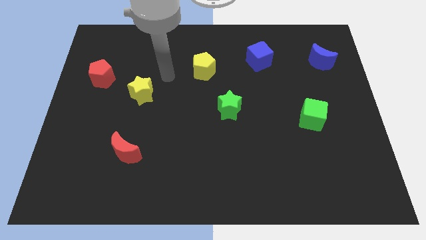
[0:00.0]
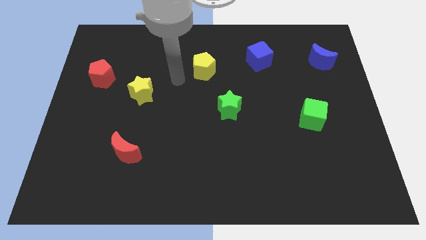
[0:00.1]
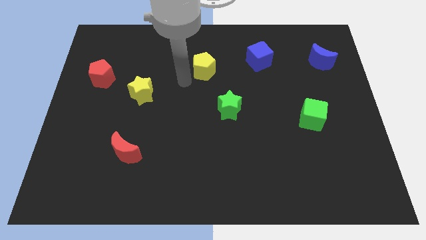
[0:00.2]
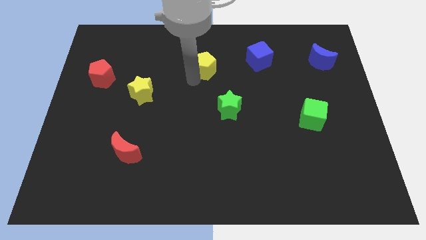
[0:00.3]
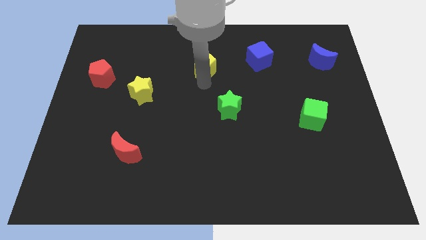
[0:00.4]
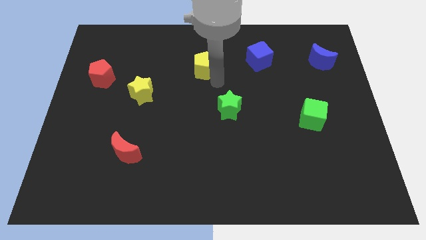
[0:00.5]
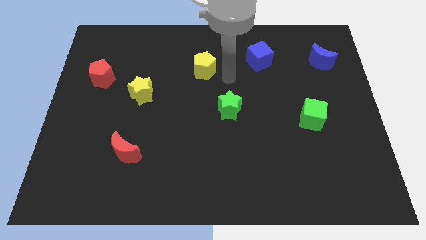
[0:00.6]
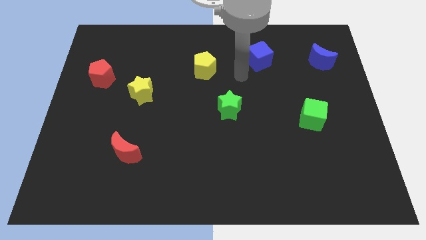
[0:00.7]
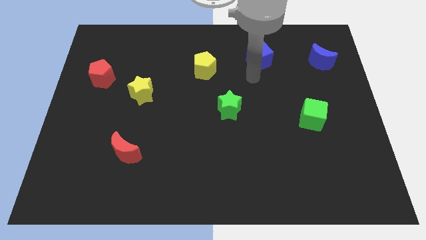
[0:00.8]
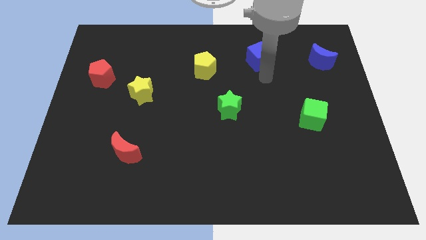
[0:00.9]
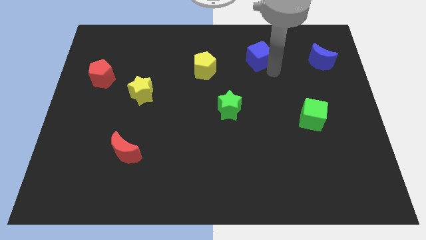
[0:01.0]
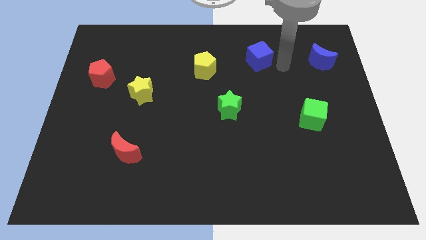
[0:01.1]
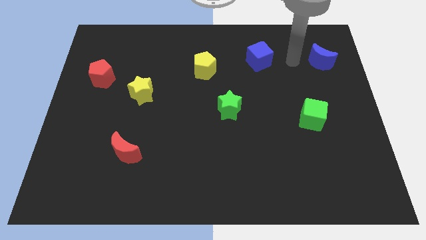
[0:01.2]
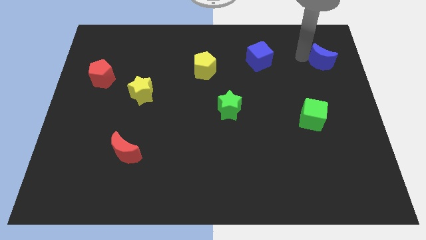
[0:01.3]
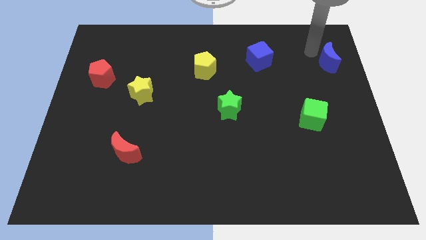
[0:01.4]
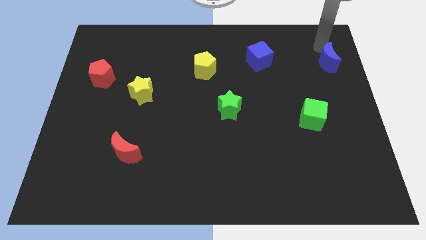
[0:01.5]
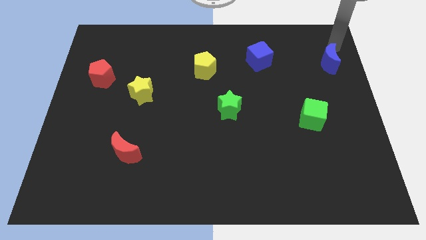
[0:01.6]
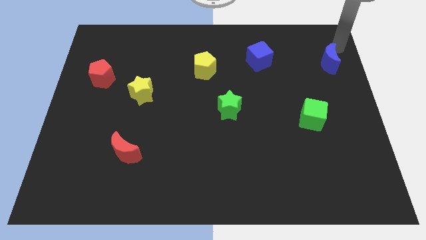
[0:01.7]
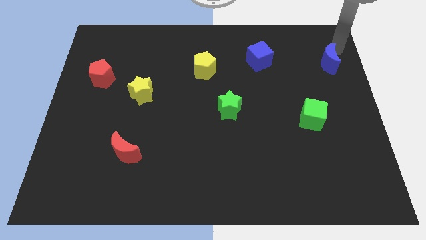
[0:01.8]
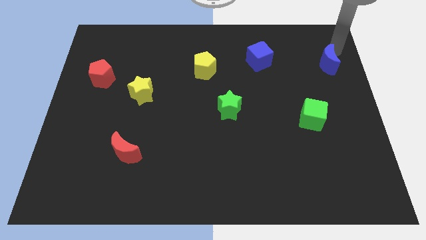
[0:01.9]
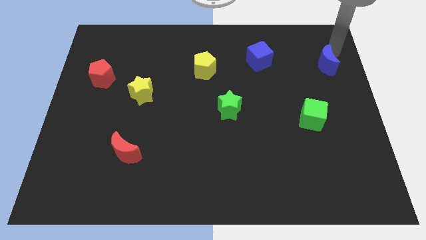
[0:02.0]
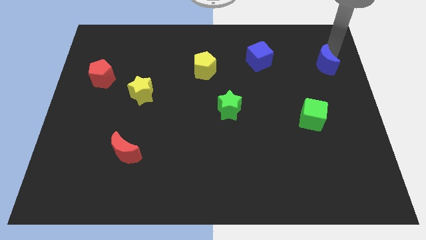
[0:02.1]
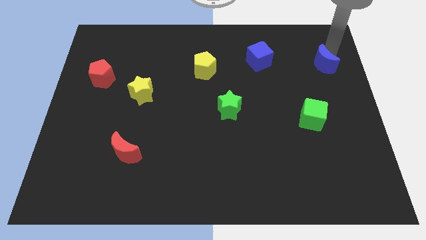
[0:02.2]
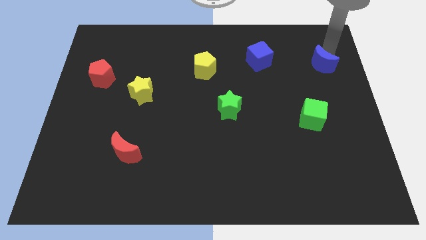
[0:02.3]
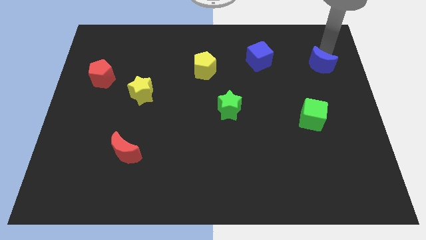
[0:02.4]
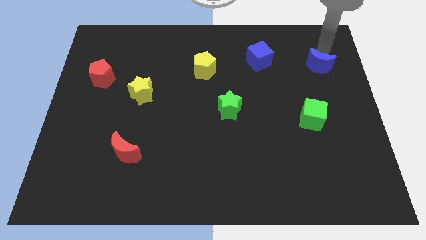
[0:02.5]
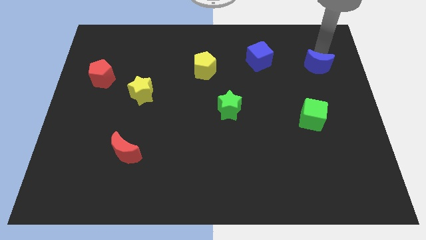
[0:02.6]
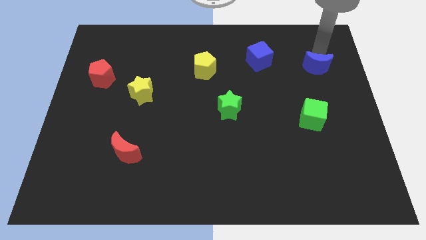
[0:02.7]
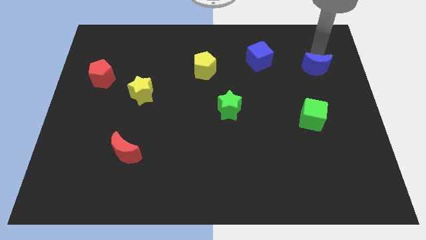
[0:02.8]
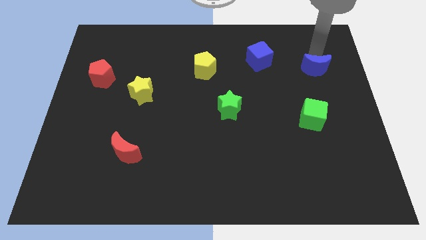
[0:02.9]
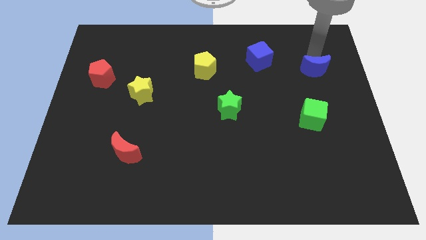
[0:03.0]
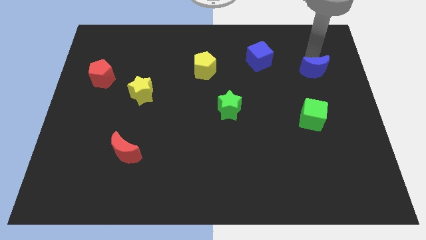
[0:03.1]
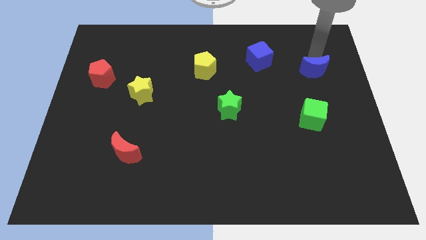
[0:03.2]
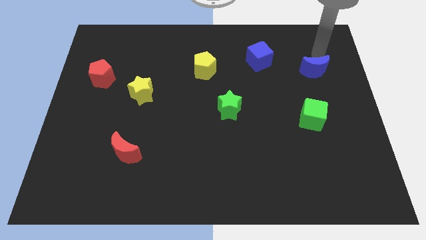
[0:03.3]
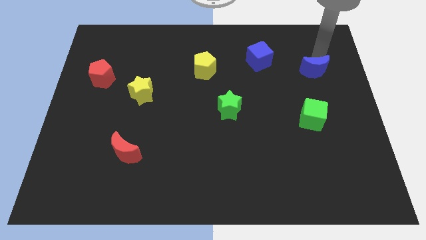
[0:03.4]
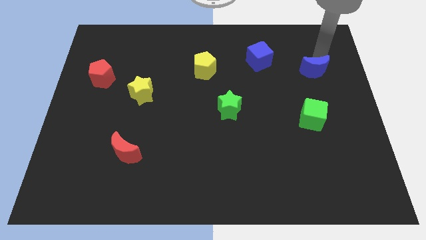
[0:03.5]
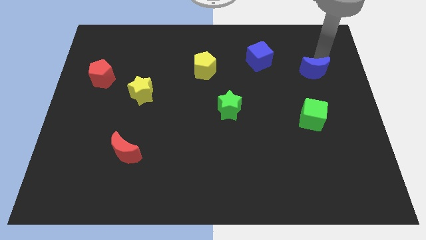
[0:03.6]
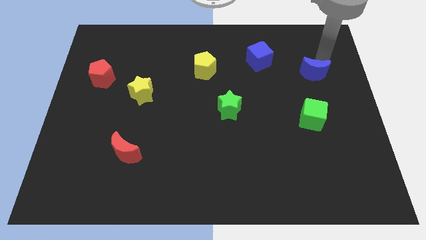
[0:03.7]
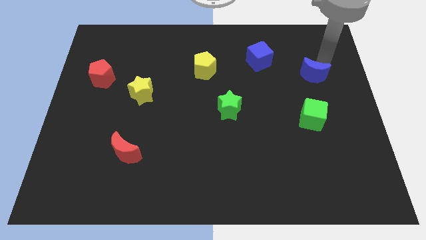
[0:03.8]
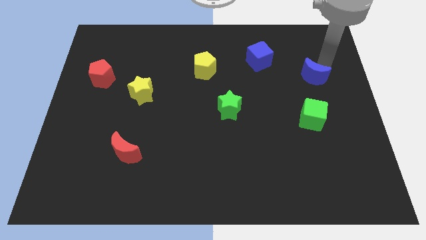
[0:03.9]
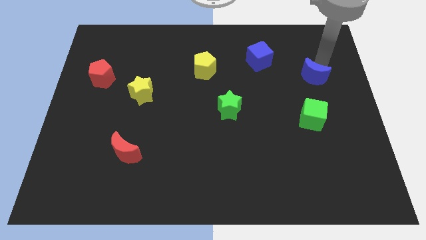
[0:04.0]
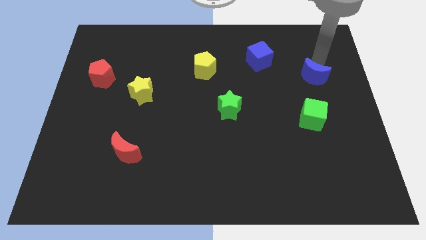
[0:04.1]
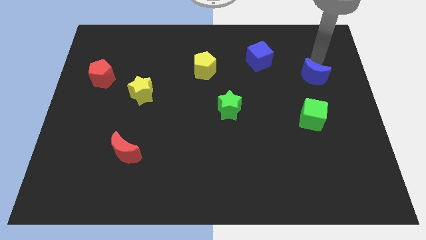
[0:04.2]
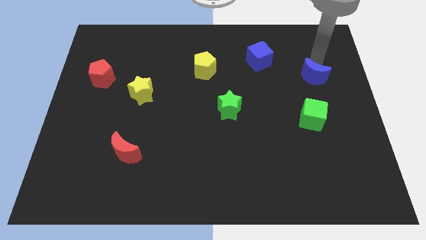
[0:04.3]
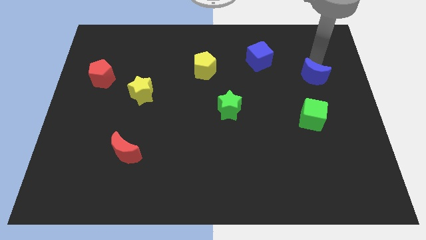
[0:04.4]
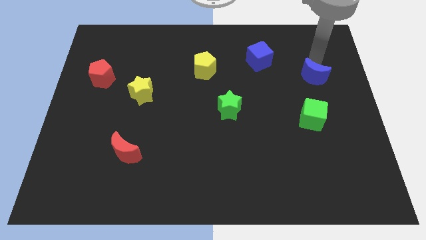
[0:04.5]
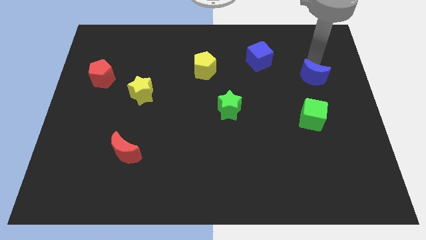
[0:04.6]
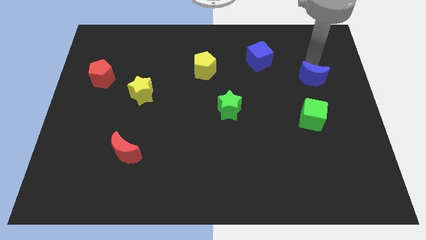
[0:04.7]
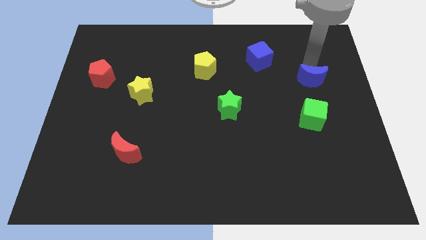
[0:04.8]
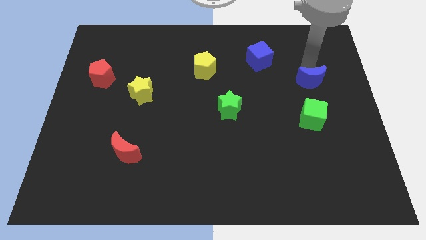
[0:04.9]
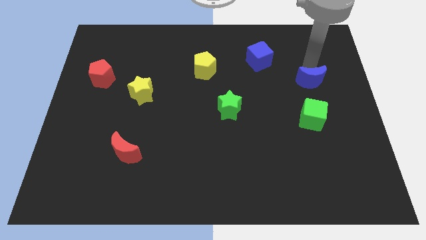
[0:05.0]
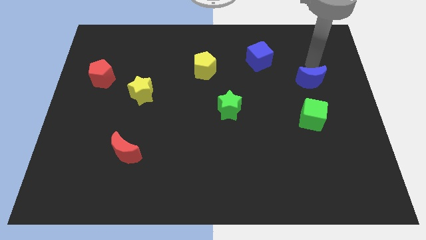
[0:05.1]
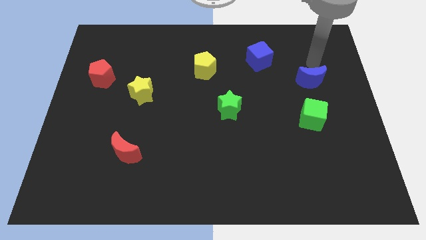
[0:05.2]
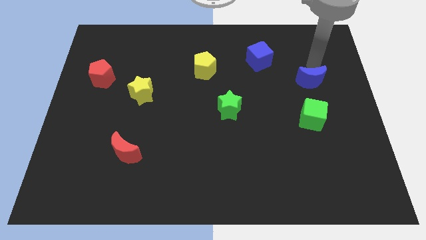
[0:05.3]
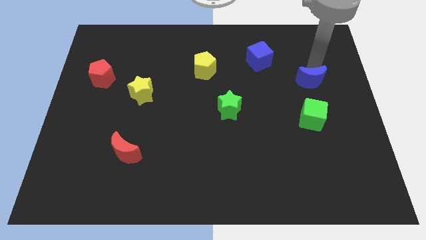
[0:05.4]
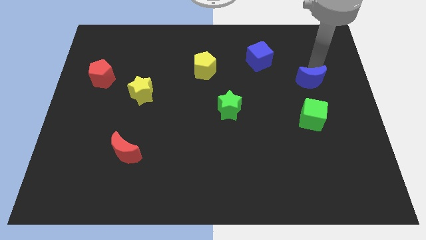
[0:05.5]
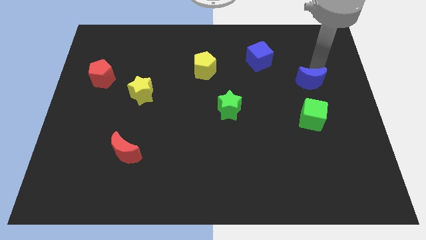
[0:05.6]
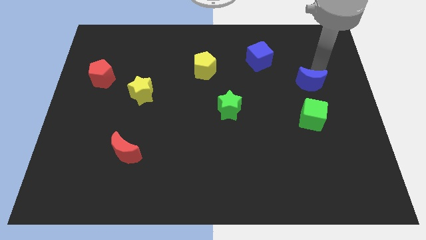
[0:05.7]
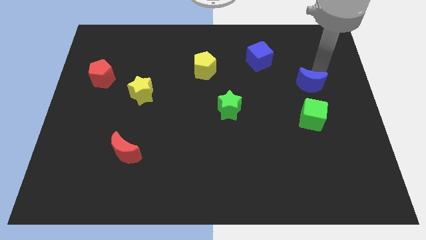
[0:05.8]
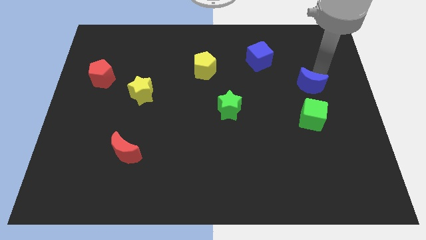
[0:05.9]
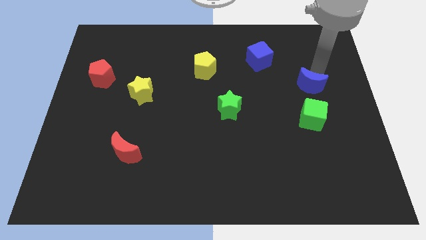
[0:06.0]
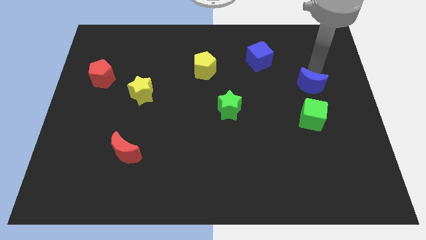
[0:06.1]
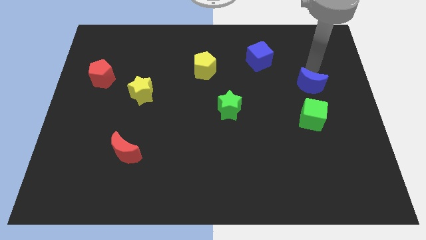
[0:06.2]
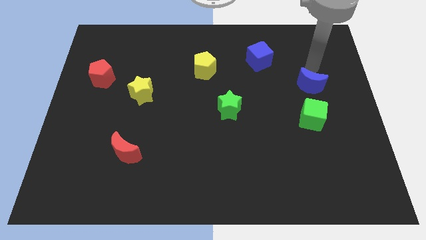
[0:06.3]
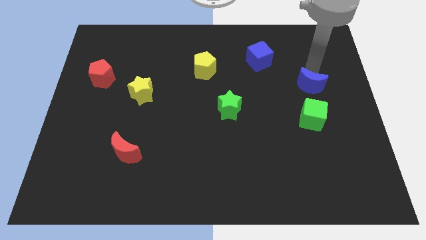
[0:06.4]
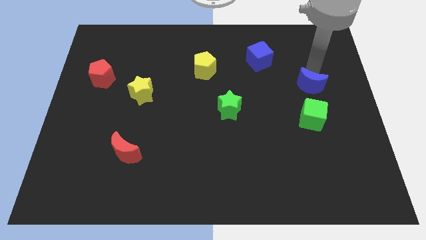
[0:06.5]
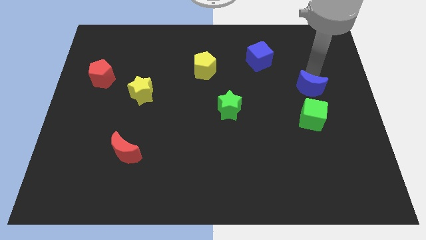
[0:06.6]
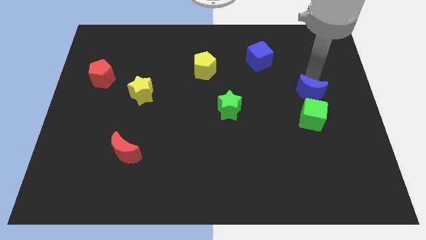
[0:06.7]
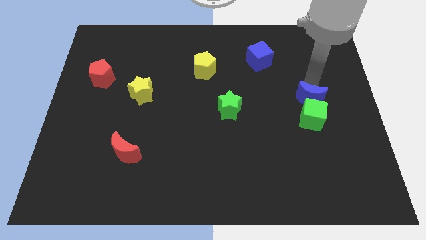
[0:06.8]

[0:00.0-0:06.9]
move the blue moon towards the green cube

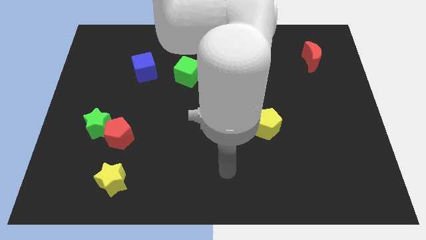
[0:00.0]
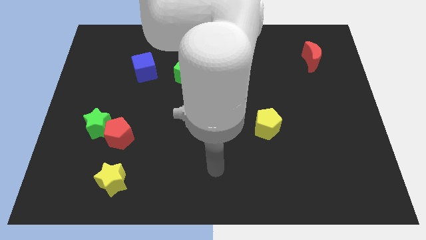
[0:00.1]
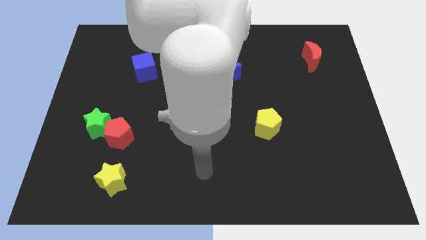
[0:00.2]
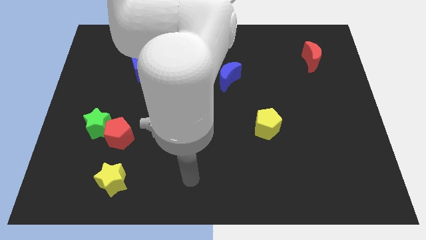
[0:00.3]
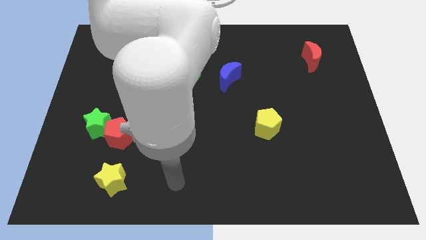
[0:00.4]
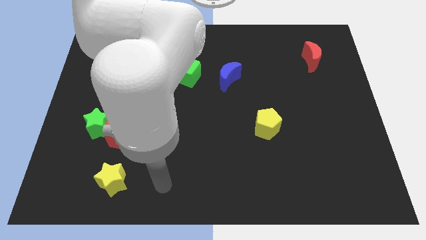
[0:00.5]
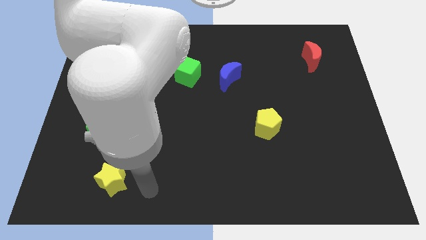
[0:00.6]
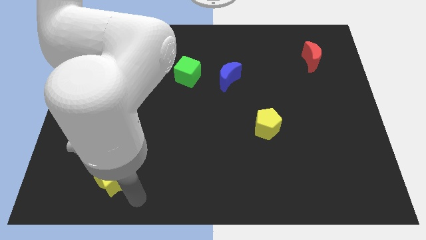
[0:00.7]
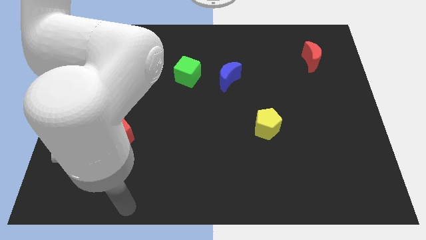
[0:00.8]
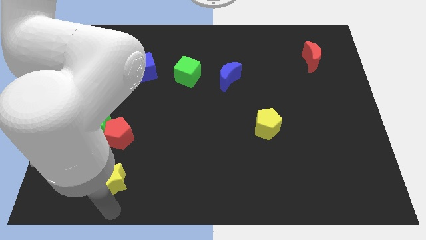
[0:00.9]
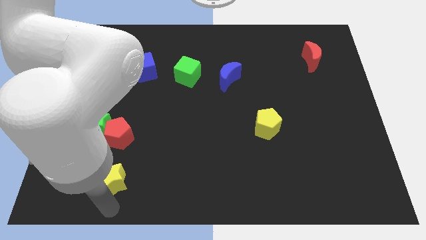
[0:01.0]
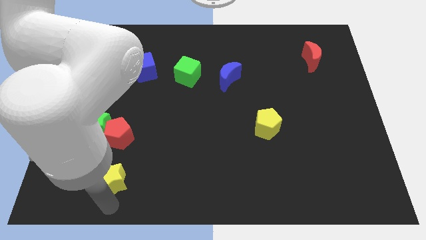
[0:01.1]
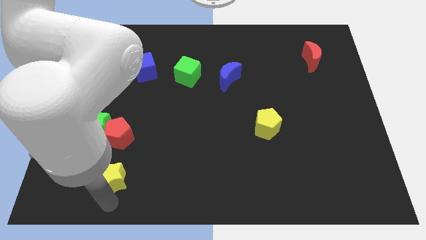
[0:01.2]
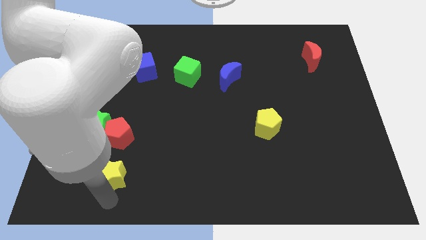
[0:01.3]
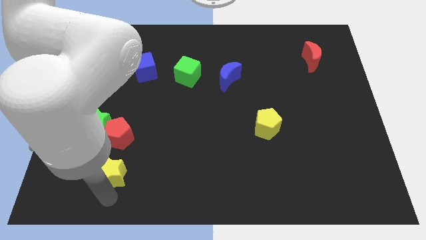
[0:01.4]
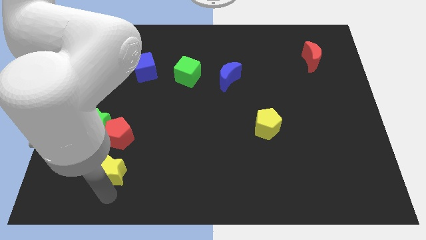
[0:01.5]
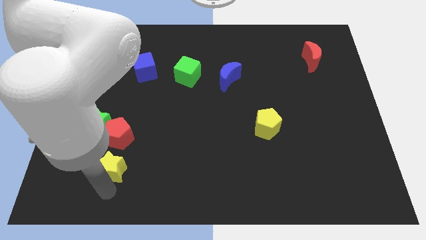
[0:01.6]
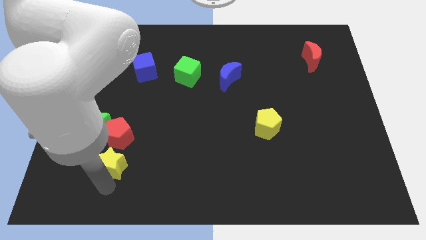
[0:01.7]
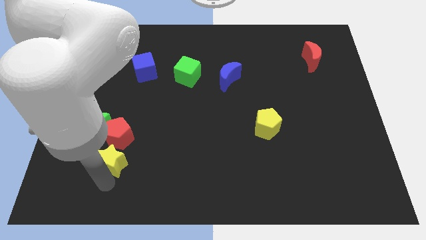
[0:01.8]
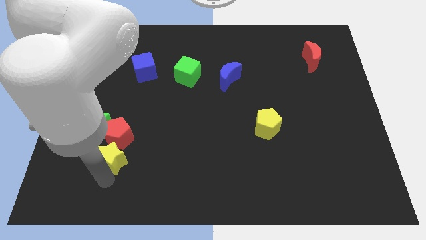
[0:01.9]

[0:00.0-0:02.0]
move the yellow star towards the red pentagon
